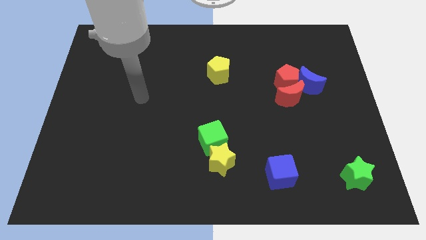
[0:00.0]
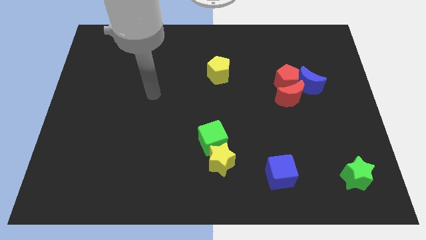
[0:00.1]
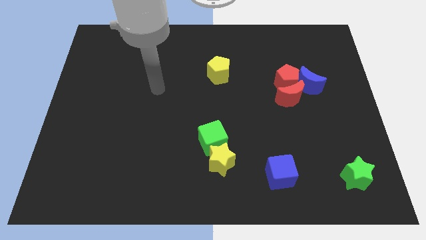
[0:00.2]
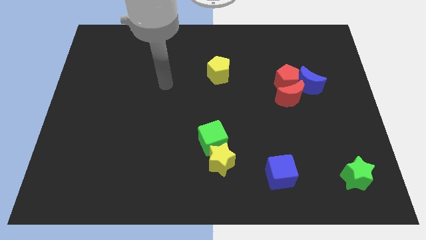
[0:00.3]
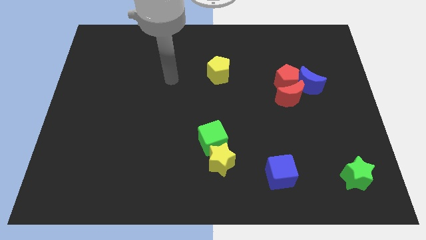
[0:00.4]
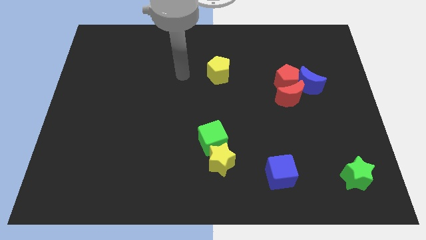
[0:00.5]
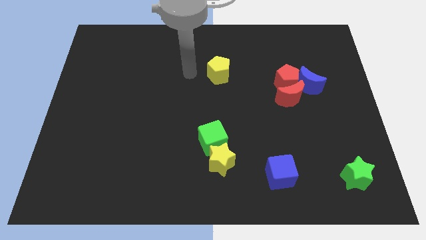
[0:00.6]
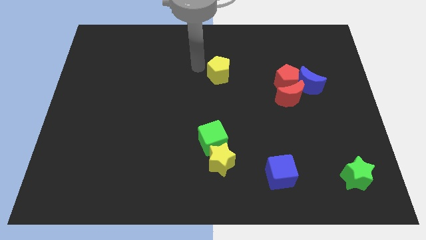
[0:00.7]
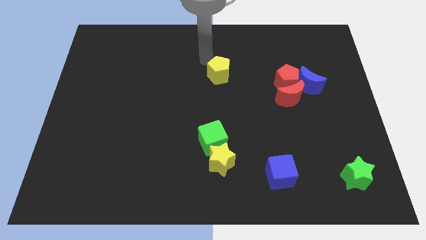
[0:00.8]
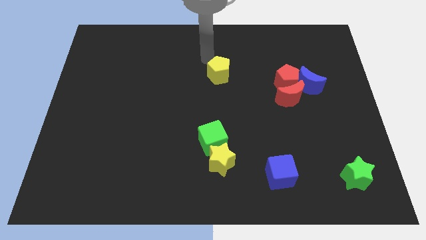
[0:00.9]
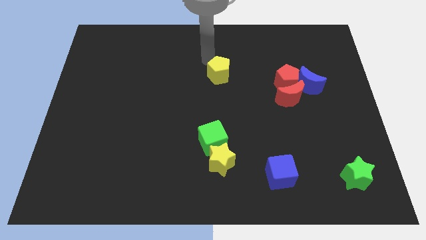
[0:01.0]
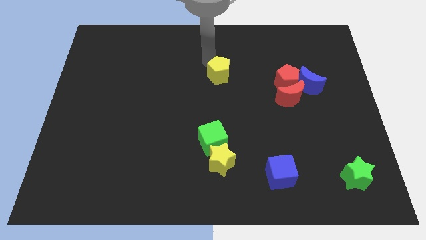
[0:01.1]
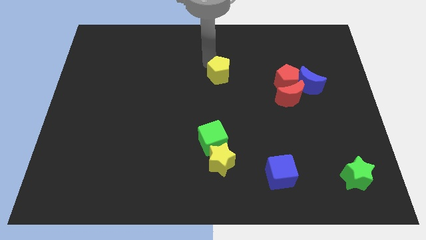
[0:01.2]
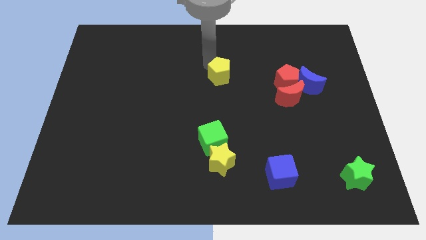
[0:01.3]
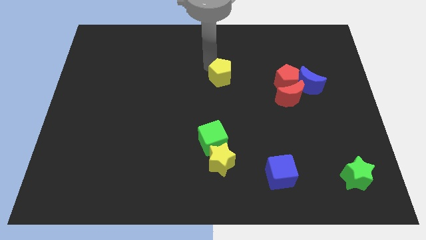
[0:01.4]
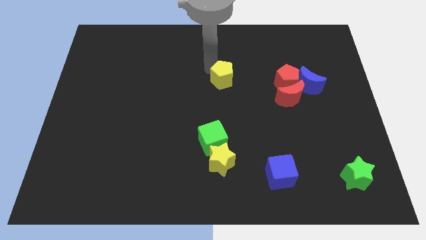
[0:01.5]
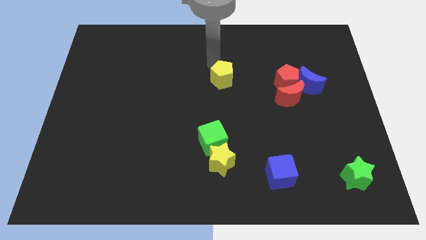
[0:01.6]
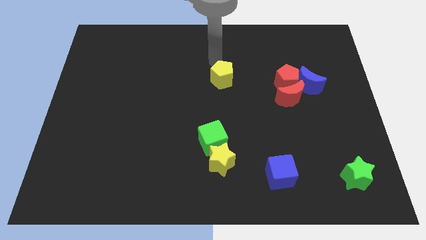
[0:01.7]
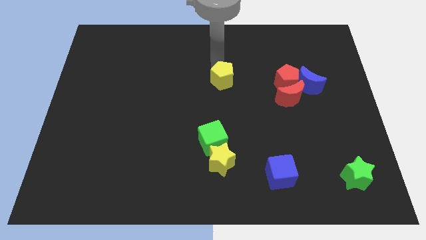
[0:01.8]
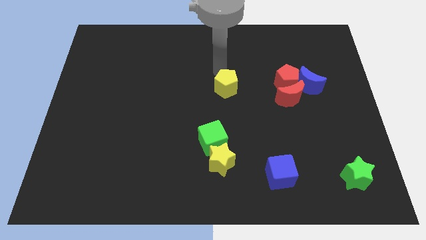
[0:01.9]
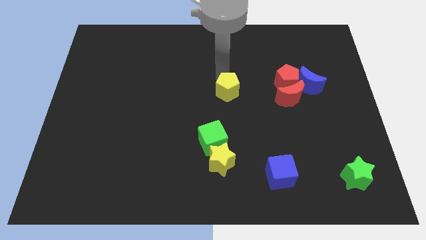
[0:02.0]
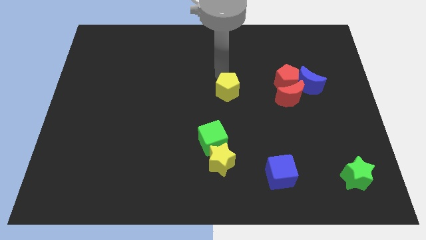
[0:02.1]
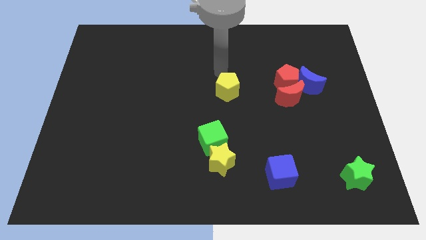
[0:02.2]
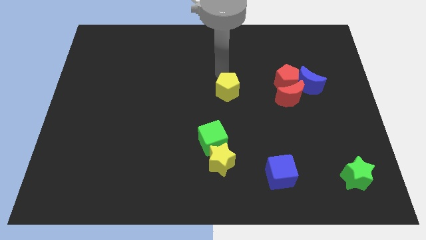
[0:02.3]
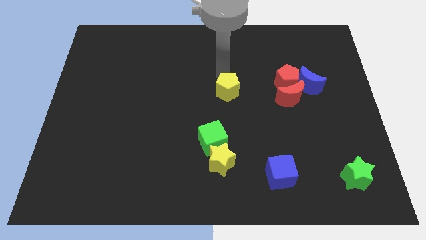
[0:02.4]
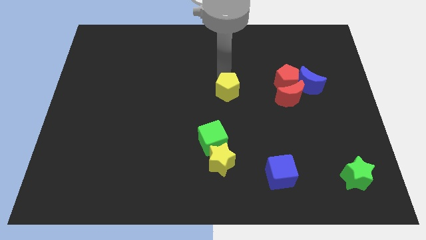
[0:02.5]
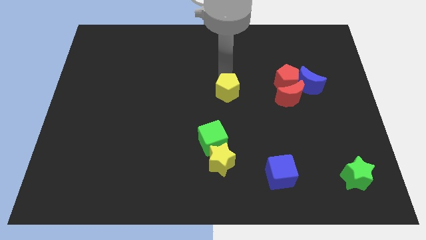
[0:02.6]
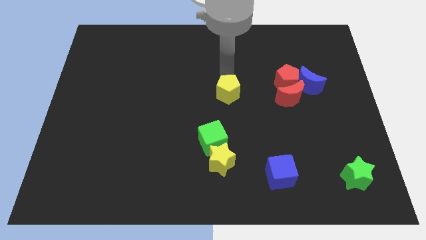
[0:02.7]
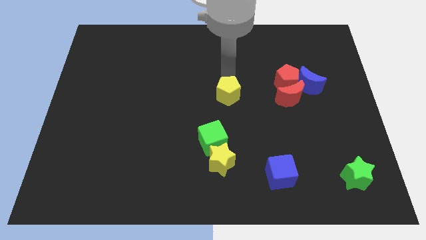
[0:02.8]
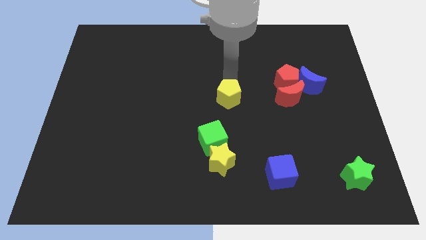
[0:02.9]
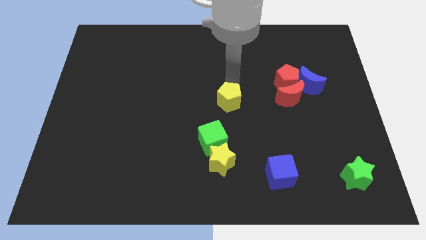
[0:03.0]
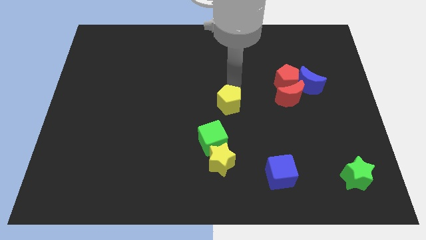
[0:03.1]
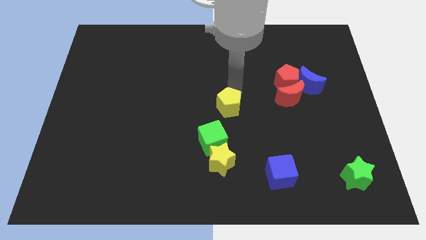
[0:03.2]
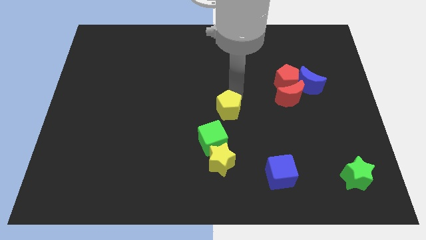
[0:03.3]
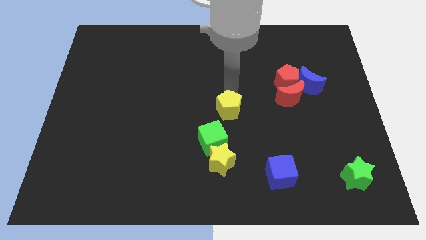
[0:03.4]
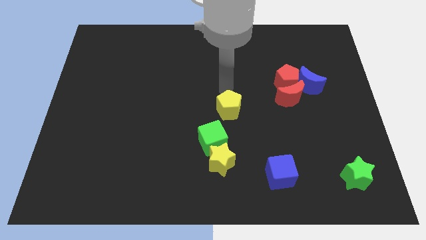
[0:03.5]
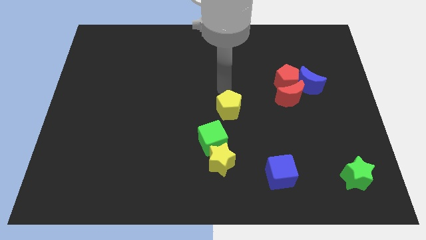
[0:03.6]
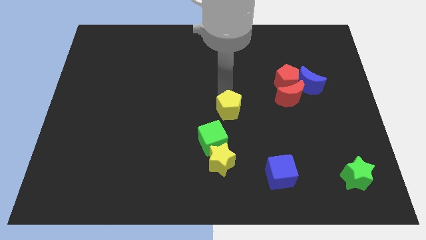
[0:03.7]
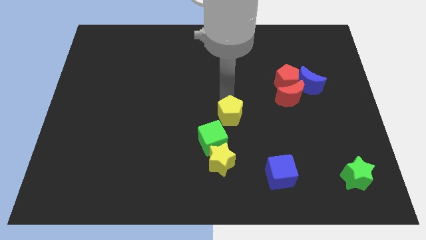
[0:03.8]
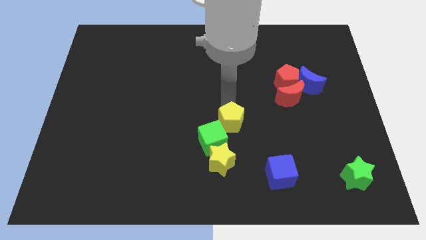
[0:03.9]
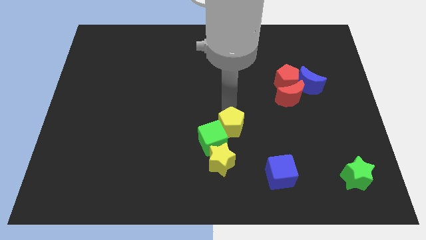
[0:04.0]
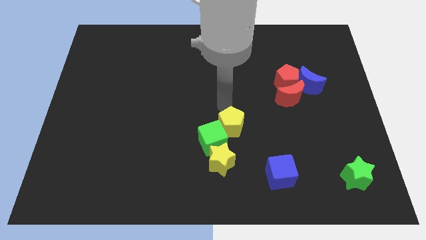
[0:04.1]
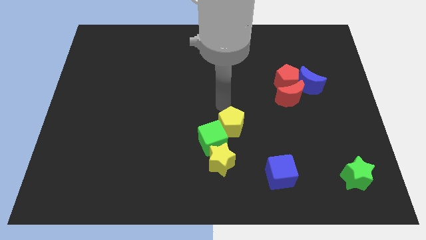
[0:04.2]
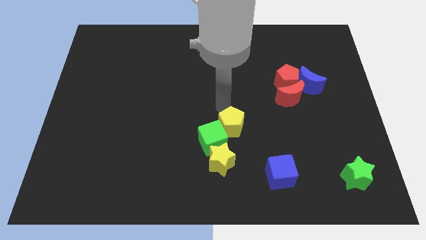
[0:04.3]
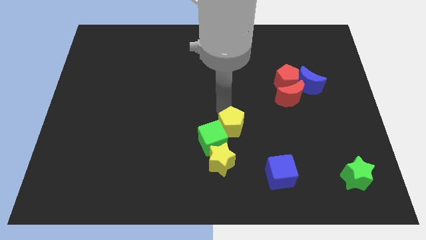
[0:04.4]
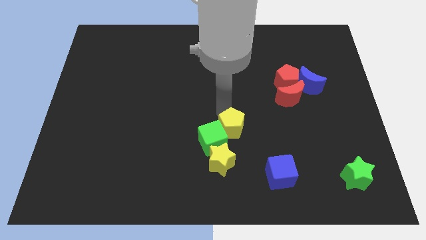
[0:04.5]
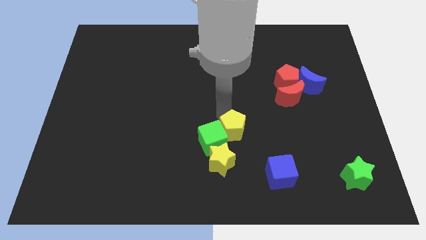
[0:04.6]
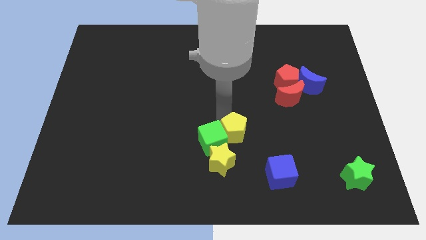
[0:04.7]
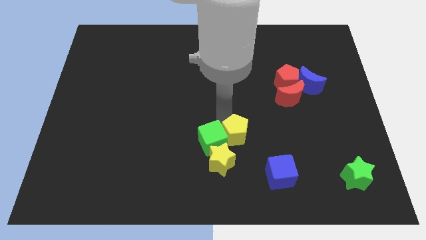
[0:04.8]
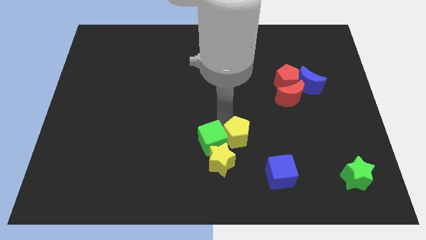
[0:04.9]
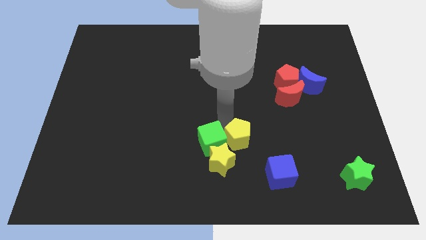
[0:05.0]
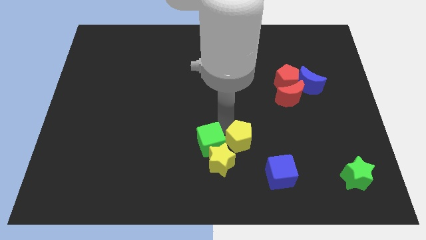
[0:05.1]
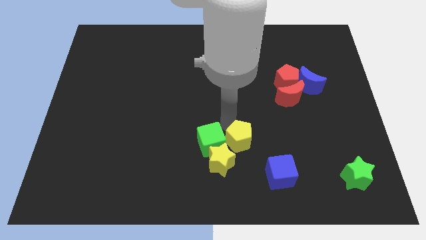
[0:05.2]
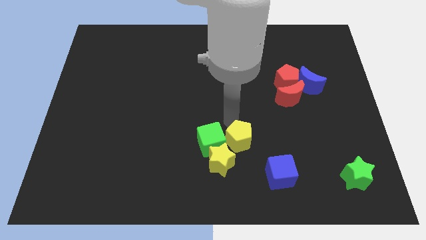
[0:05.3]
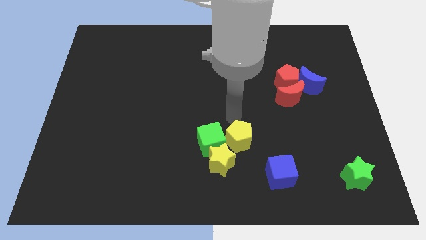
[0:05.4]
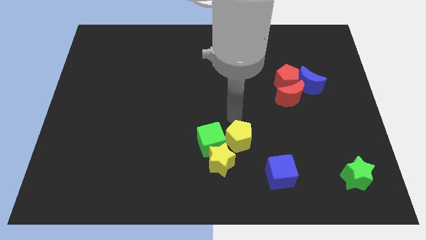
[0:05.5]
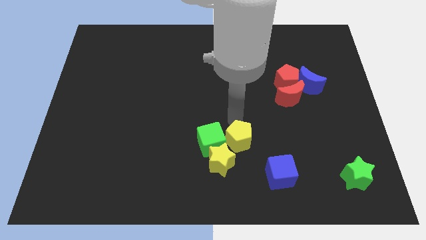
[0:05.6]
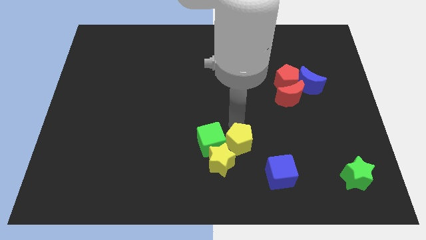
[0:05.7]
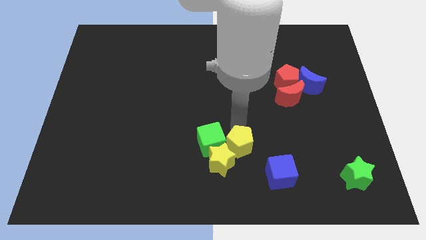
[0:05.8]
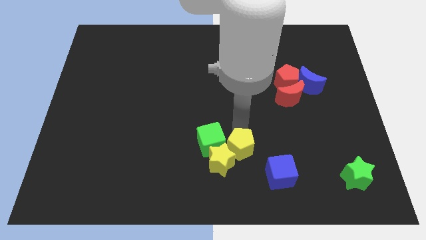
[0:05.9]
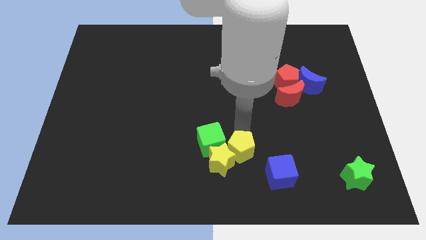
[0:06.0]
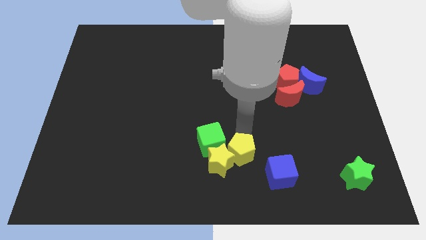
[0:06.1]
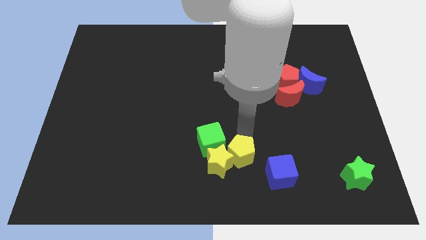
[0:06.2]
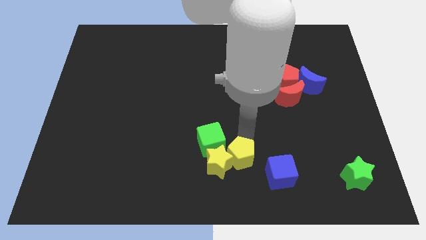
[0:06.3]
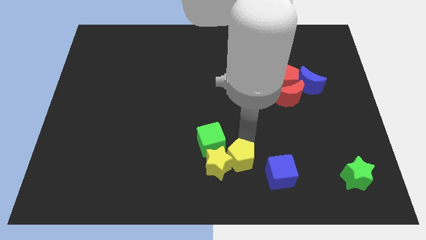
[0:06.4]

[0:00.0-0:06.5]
slide the yellow pentagon to the bottom side
